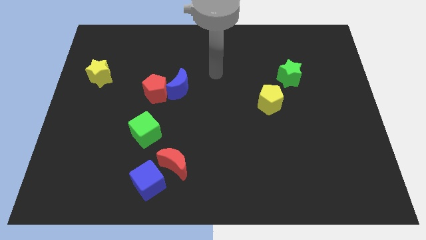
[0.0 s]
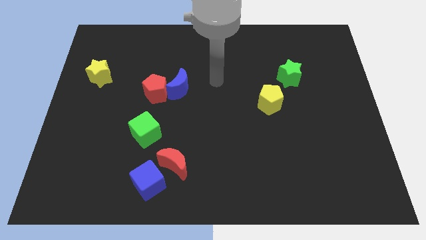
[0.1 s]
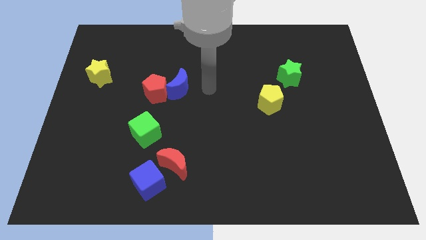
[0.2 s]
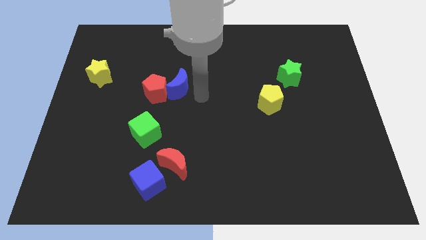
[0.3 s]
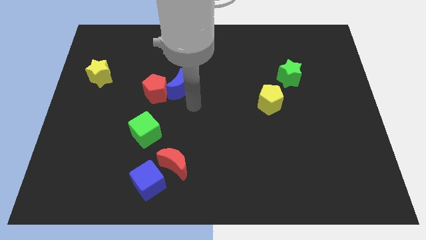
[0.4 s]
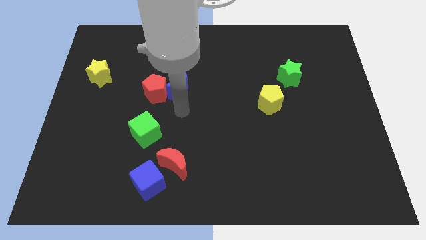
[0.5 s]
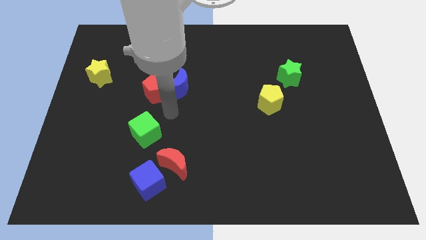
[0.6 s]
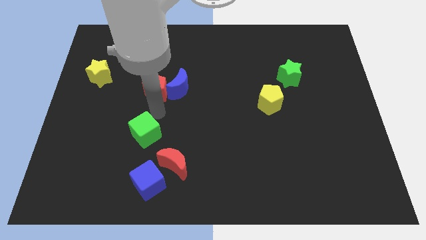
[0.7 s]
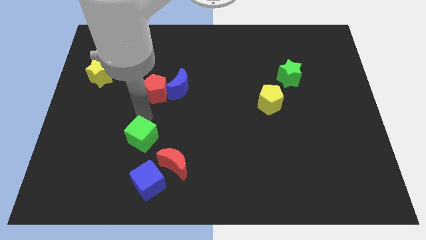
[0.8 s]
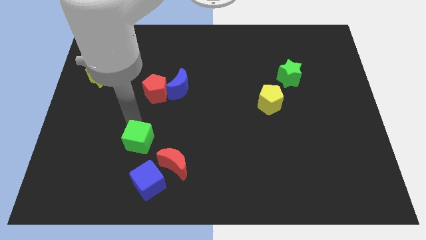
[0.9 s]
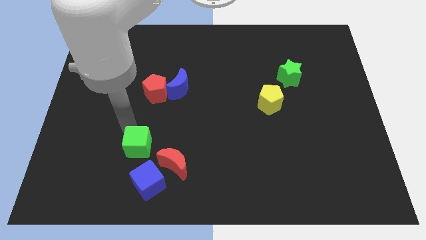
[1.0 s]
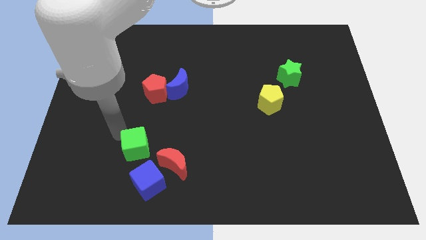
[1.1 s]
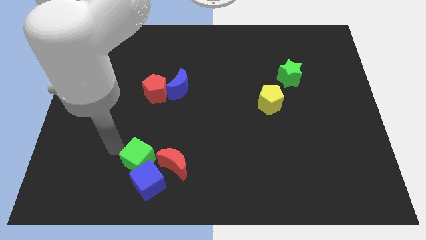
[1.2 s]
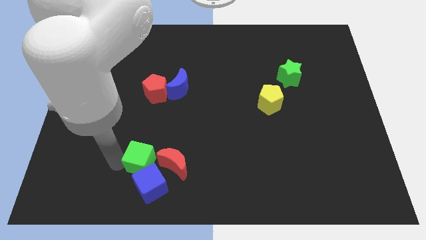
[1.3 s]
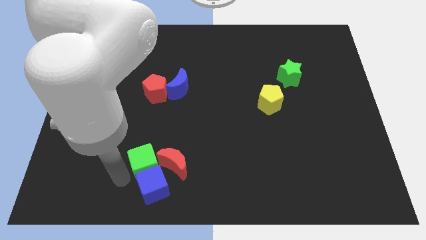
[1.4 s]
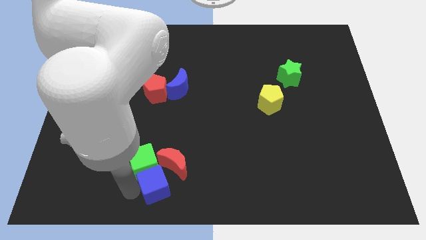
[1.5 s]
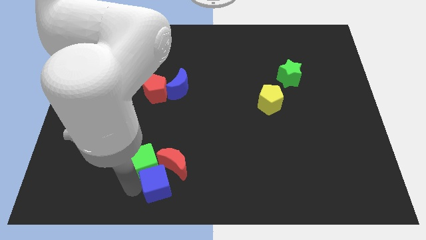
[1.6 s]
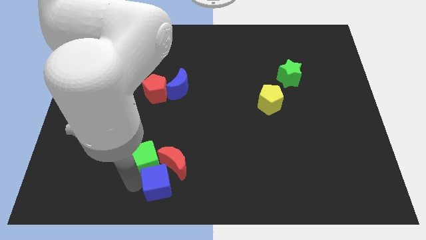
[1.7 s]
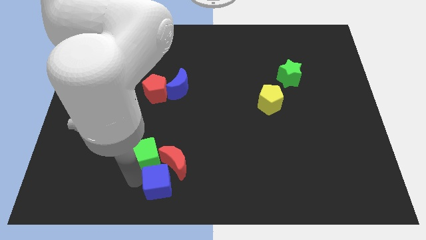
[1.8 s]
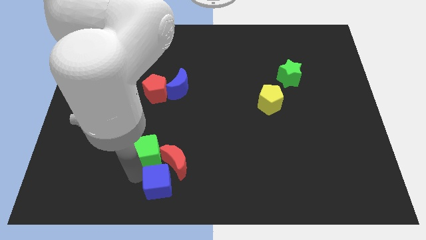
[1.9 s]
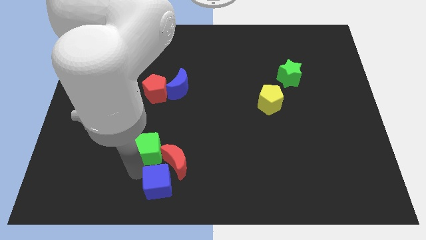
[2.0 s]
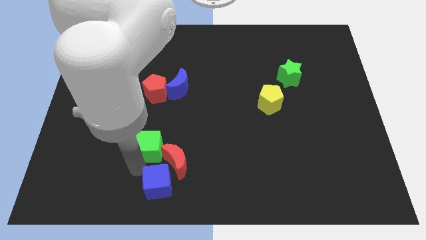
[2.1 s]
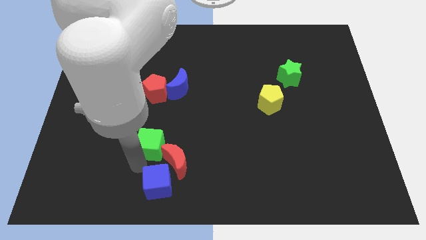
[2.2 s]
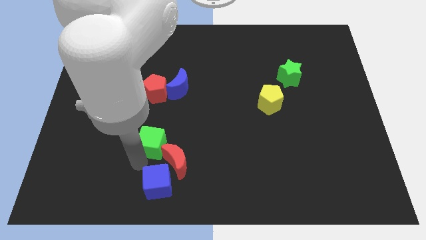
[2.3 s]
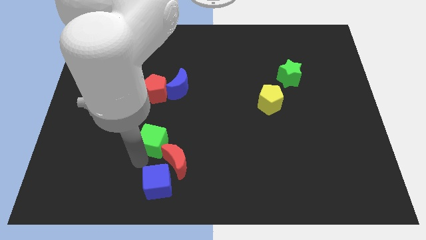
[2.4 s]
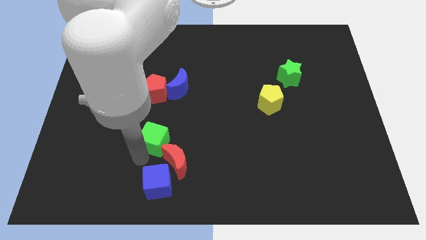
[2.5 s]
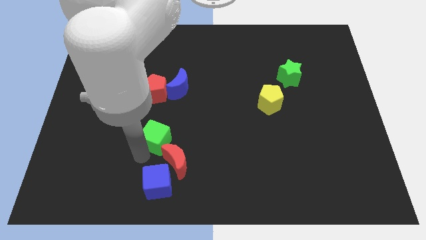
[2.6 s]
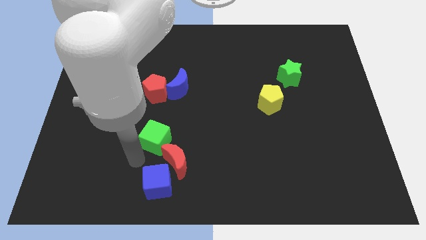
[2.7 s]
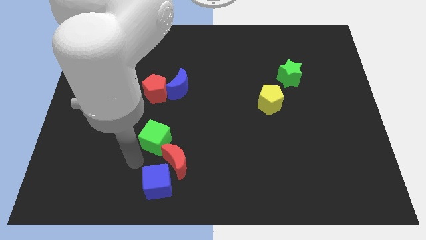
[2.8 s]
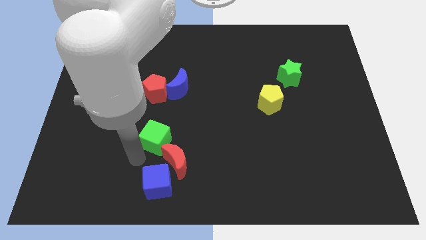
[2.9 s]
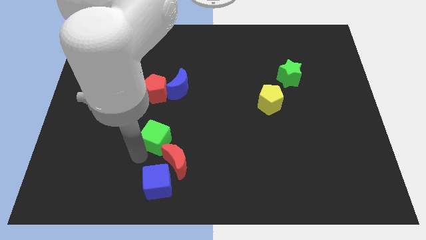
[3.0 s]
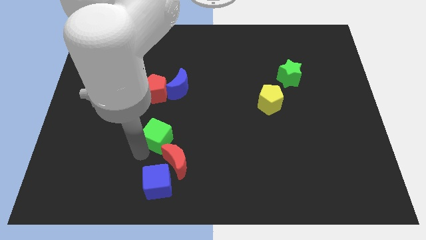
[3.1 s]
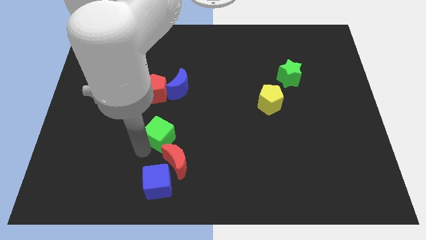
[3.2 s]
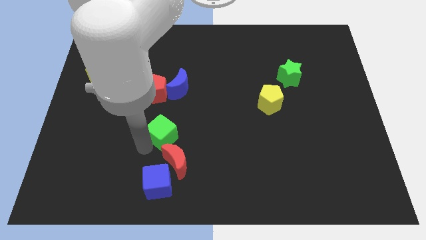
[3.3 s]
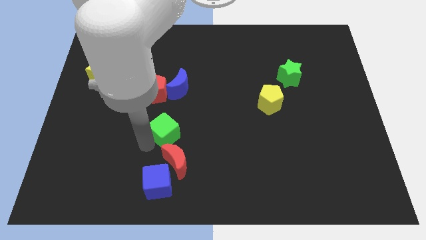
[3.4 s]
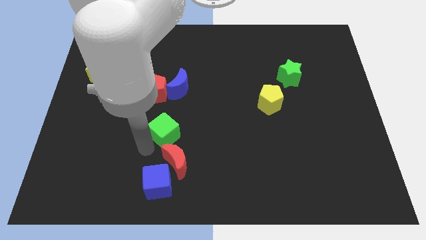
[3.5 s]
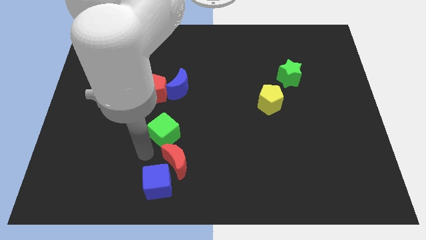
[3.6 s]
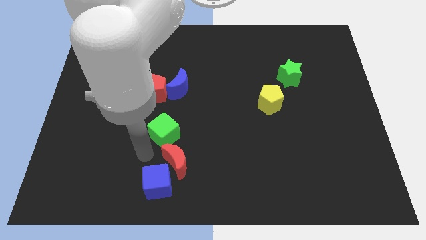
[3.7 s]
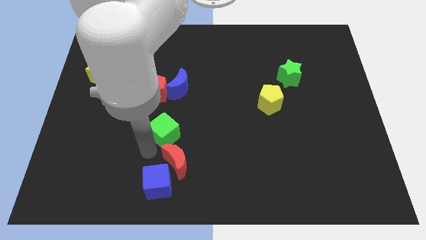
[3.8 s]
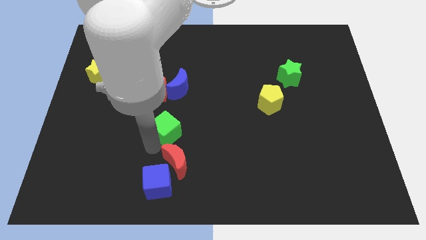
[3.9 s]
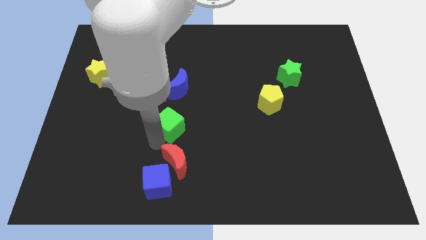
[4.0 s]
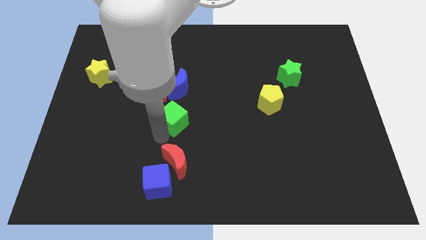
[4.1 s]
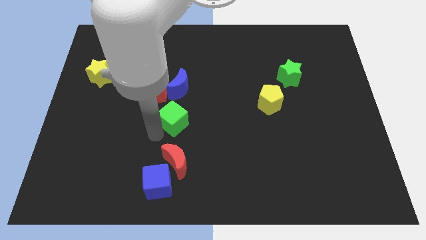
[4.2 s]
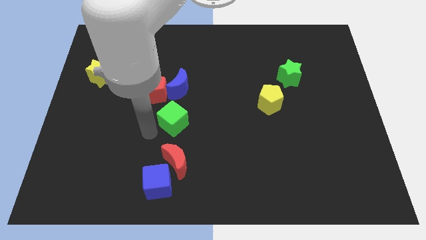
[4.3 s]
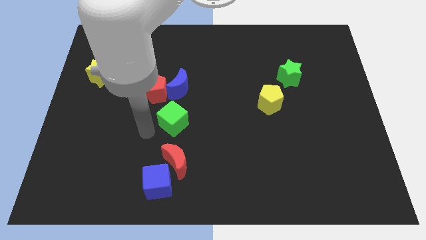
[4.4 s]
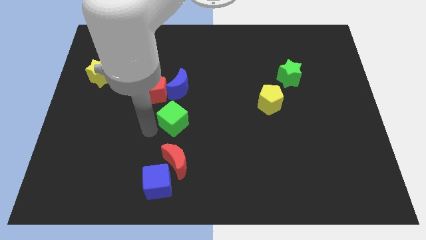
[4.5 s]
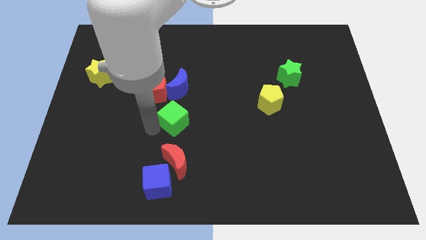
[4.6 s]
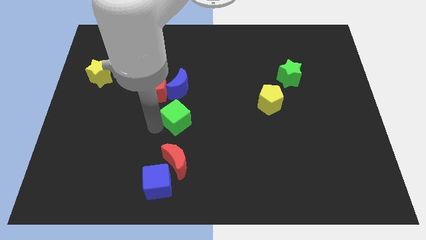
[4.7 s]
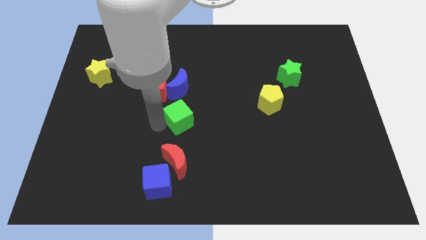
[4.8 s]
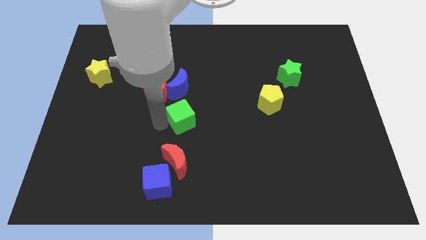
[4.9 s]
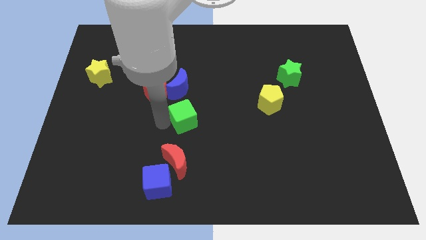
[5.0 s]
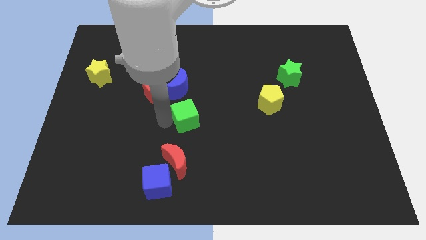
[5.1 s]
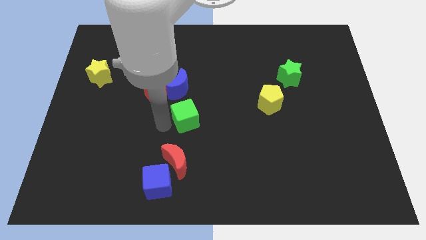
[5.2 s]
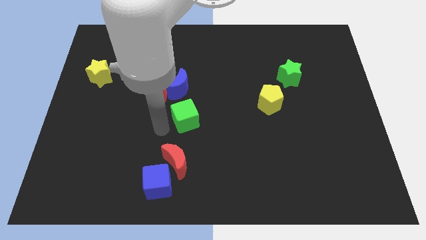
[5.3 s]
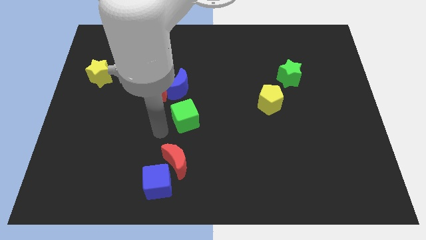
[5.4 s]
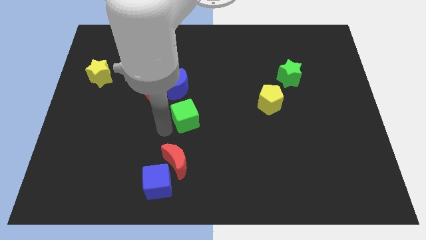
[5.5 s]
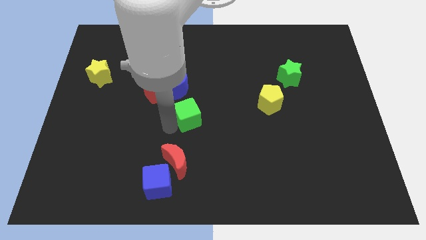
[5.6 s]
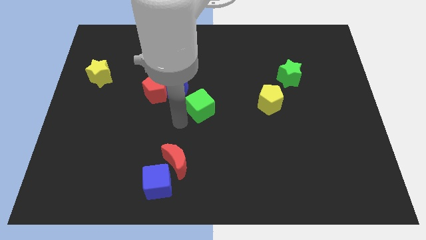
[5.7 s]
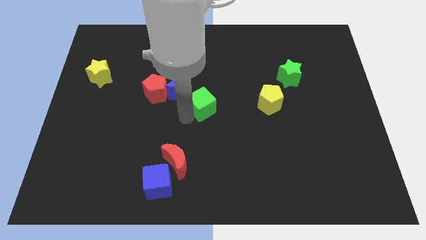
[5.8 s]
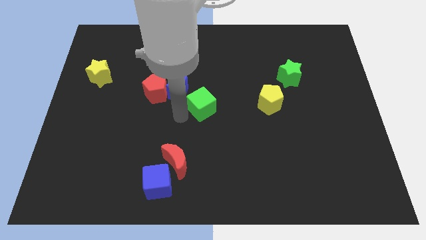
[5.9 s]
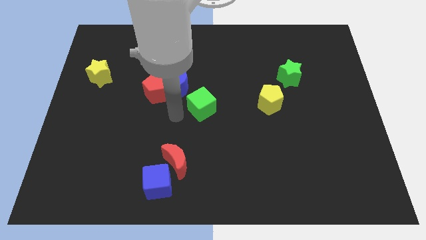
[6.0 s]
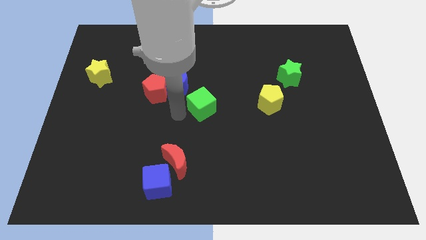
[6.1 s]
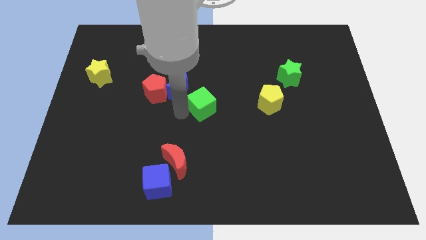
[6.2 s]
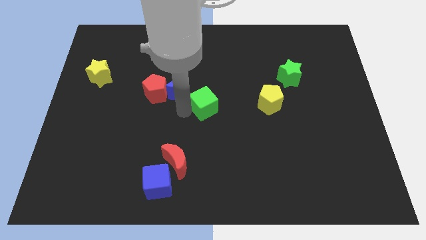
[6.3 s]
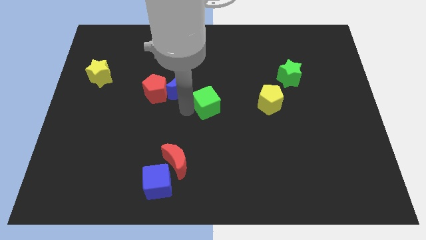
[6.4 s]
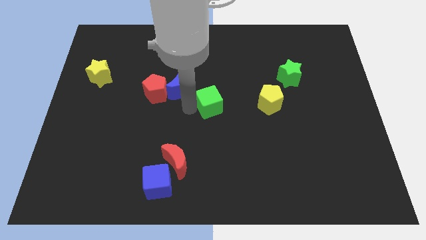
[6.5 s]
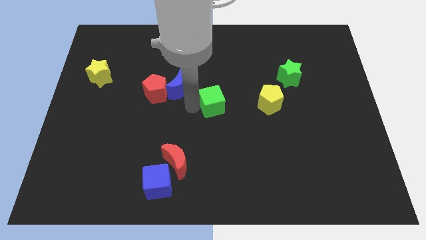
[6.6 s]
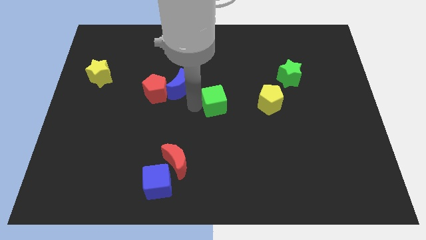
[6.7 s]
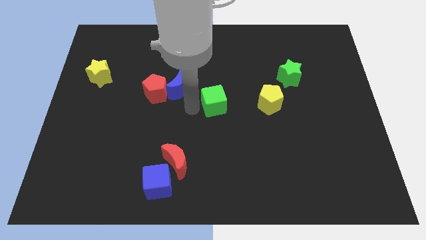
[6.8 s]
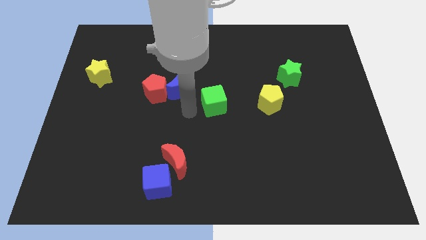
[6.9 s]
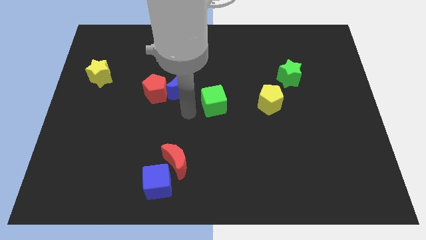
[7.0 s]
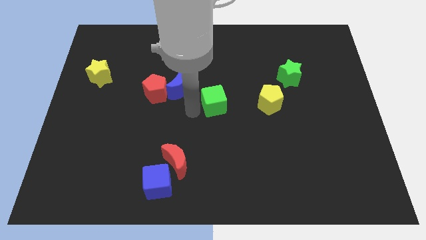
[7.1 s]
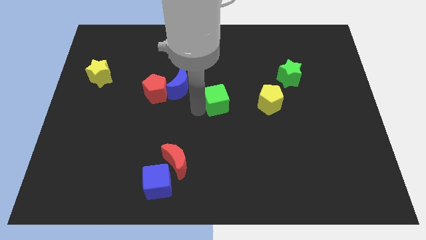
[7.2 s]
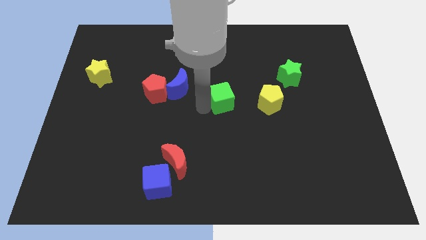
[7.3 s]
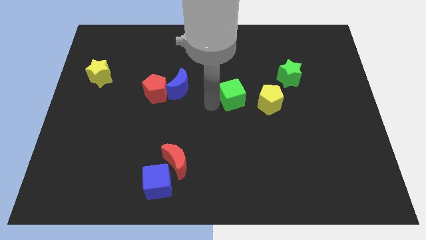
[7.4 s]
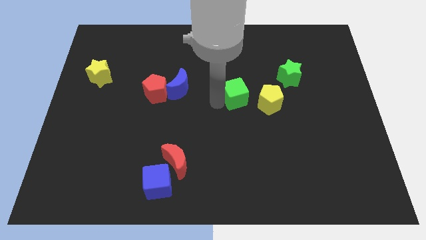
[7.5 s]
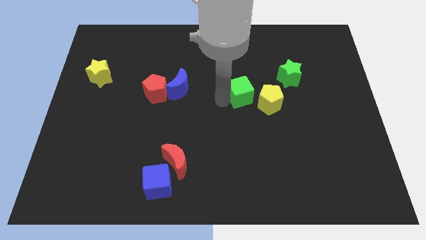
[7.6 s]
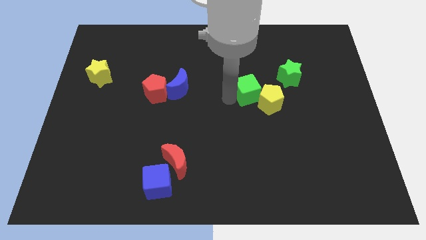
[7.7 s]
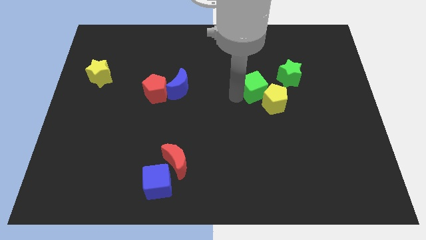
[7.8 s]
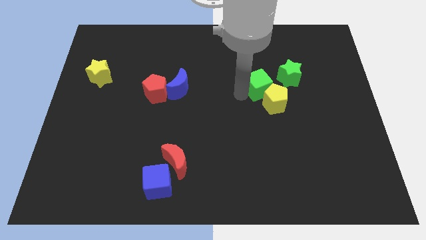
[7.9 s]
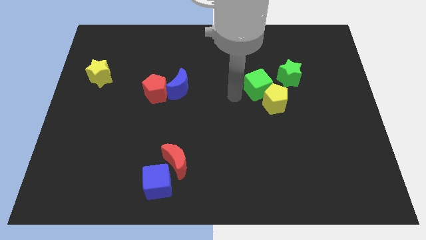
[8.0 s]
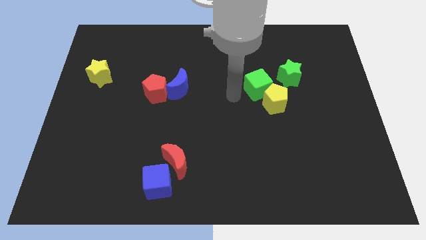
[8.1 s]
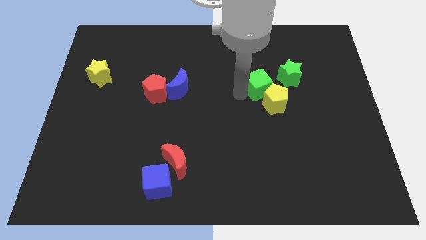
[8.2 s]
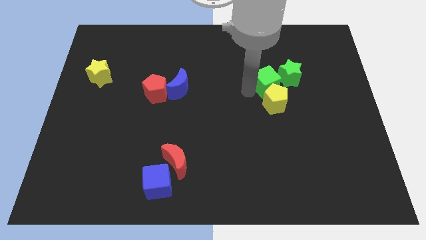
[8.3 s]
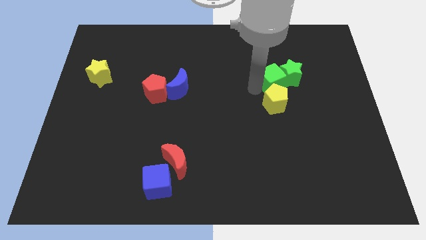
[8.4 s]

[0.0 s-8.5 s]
slide the green cube towards the green star
